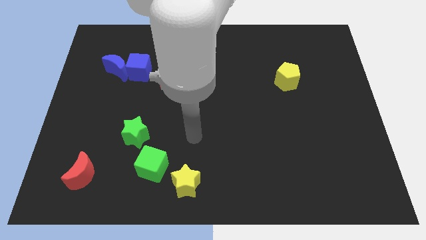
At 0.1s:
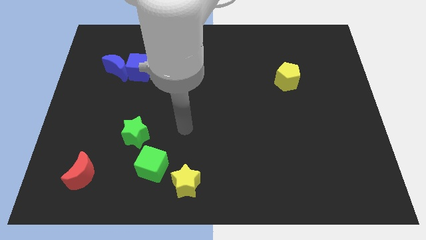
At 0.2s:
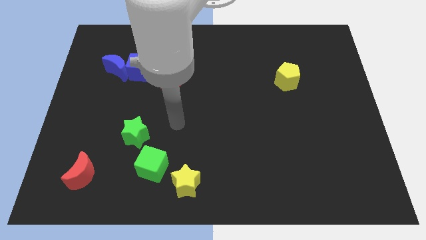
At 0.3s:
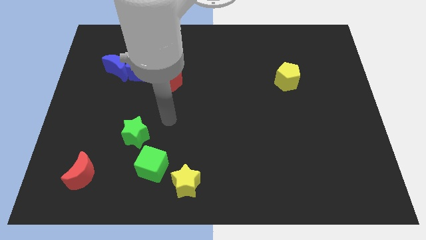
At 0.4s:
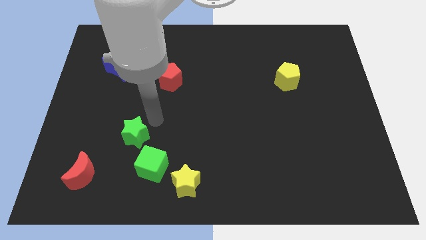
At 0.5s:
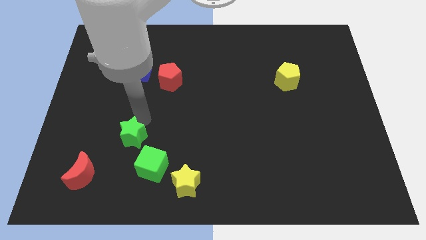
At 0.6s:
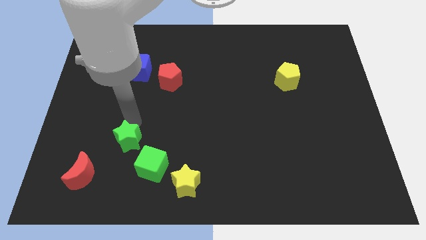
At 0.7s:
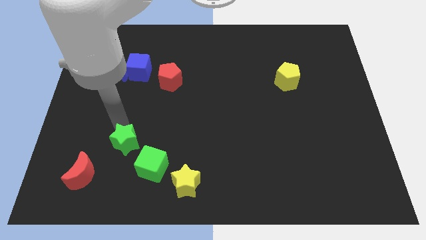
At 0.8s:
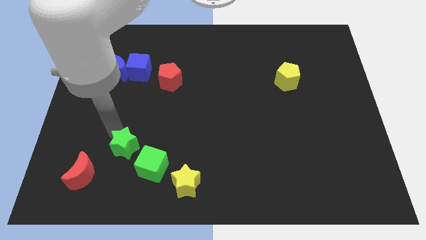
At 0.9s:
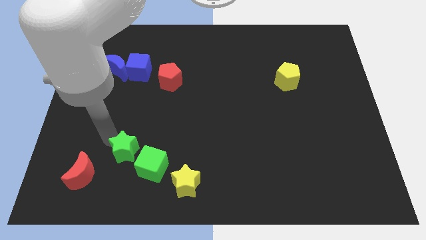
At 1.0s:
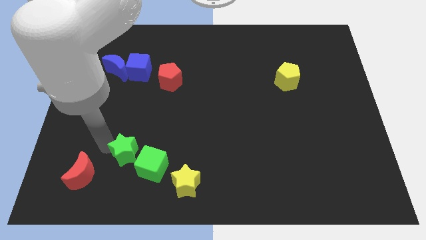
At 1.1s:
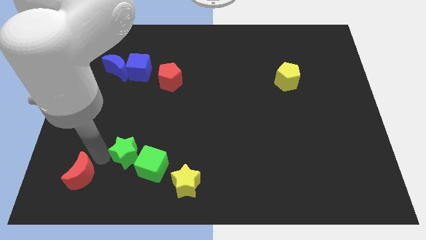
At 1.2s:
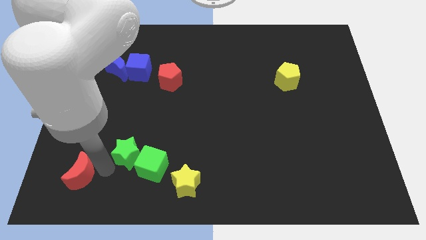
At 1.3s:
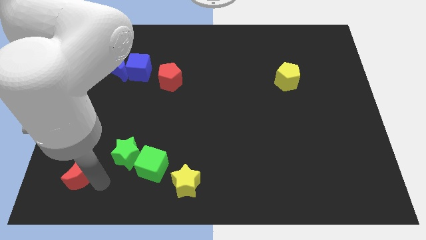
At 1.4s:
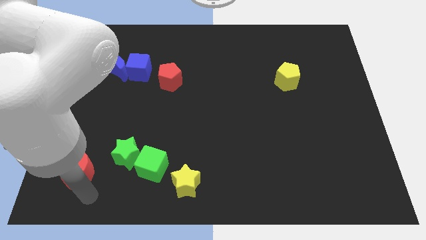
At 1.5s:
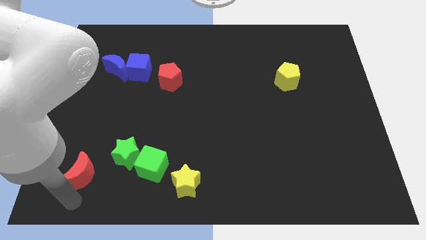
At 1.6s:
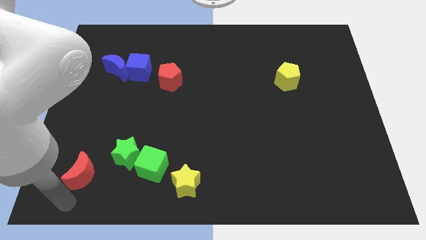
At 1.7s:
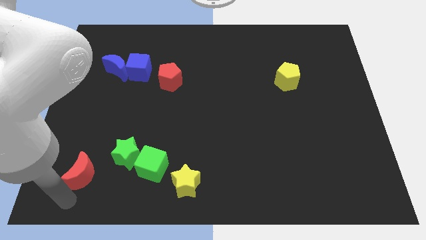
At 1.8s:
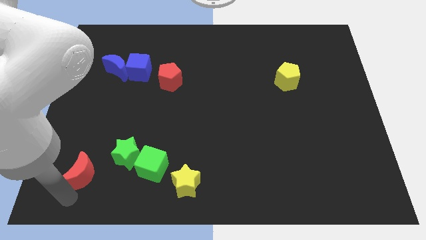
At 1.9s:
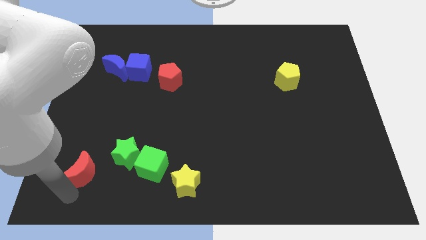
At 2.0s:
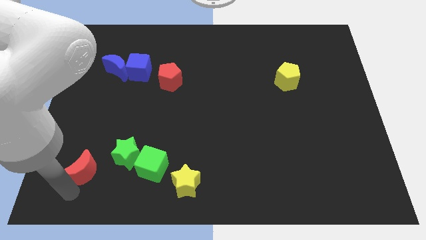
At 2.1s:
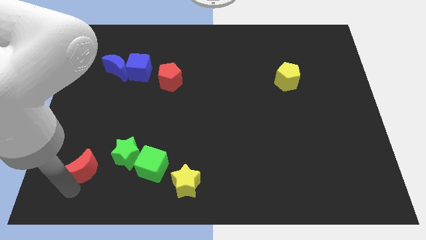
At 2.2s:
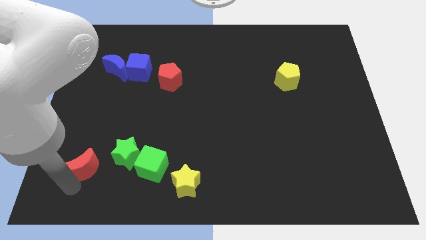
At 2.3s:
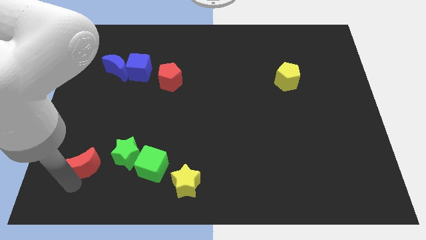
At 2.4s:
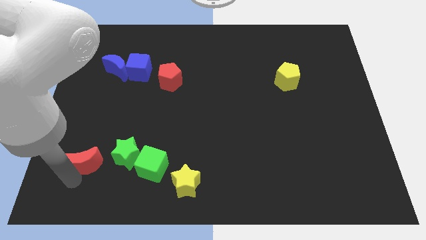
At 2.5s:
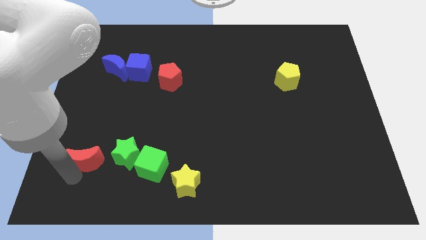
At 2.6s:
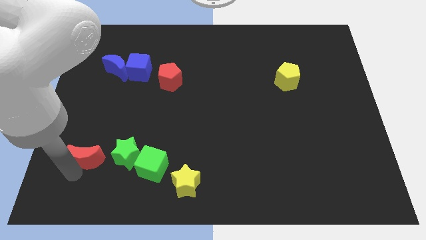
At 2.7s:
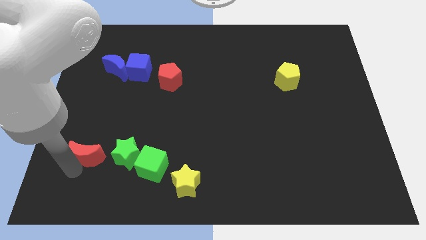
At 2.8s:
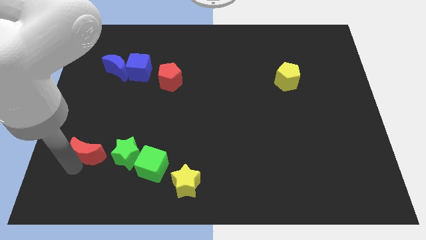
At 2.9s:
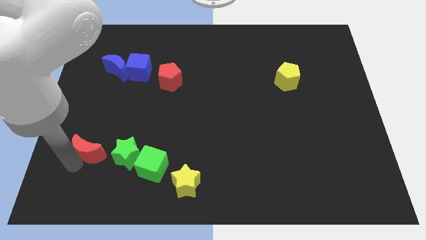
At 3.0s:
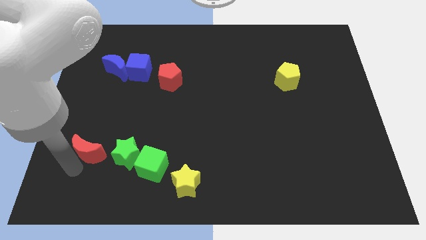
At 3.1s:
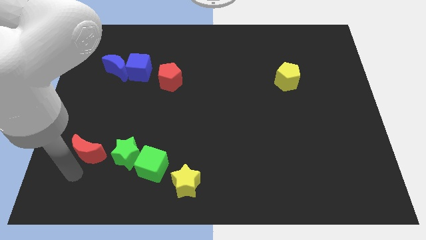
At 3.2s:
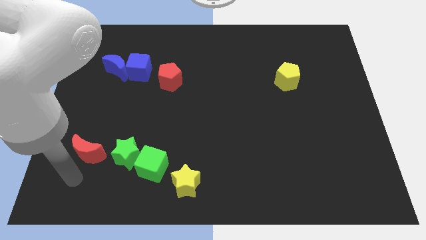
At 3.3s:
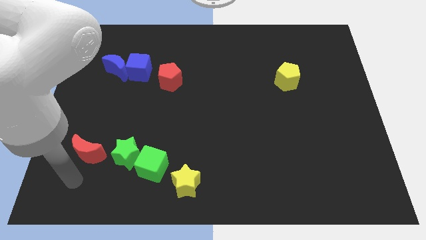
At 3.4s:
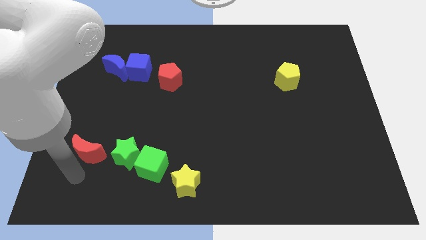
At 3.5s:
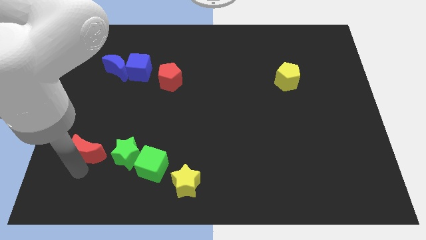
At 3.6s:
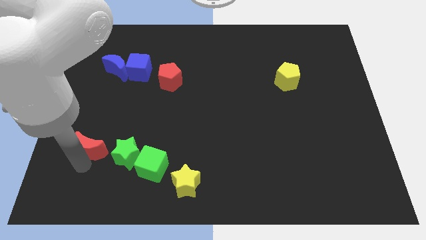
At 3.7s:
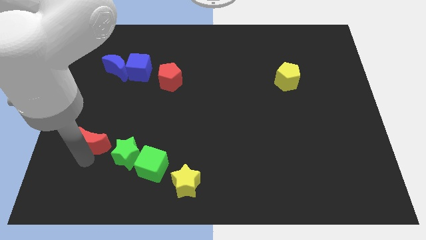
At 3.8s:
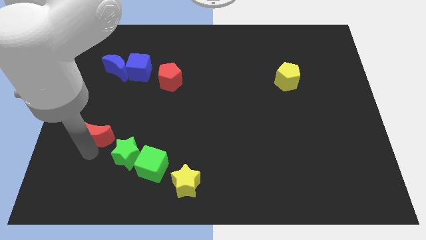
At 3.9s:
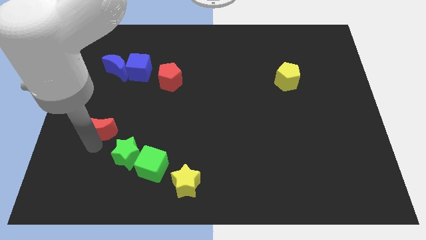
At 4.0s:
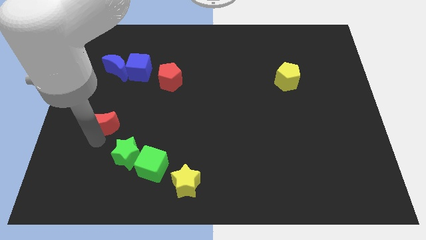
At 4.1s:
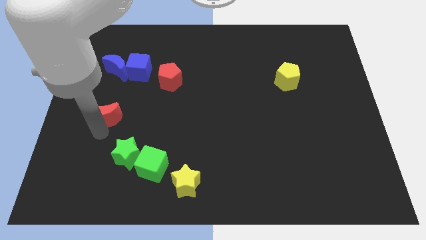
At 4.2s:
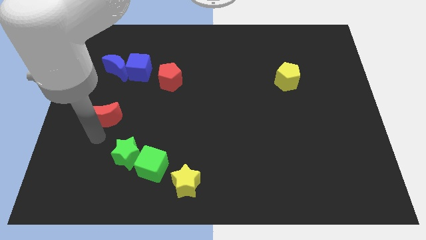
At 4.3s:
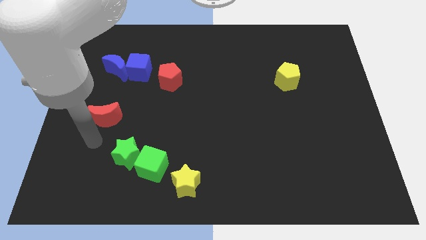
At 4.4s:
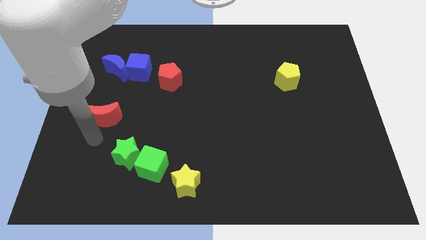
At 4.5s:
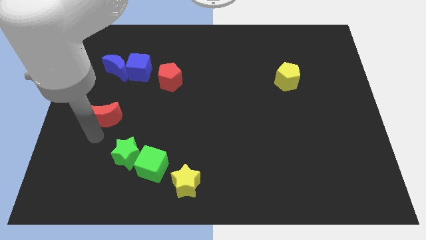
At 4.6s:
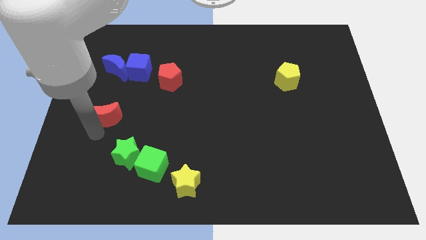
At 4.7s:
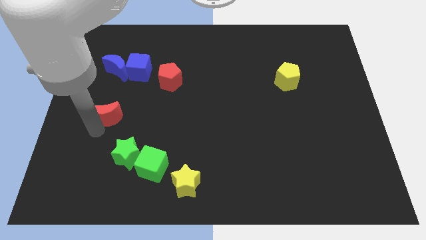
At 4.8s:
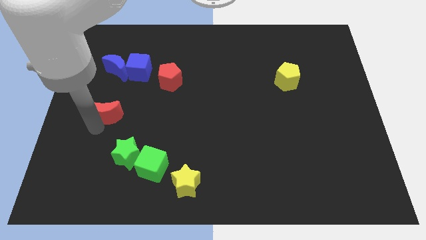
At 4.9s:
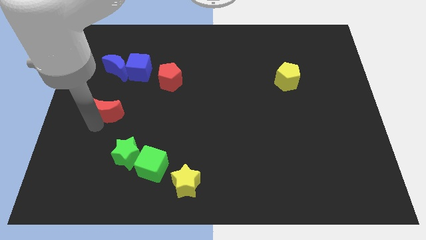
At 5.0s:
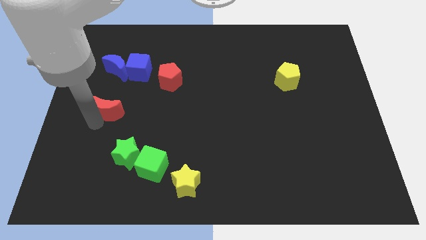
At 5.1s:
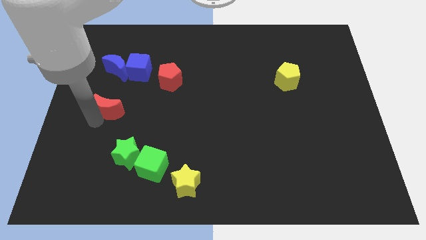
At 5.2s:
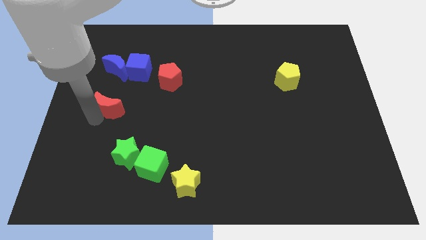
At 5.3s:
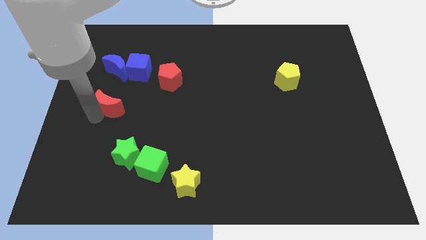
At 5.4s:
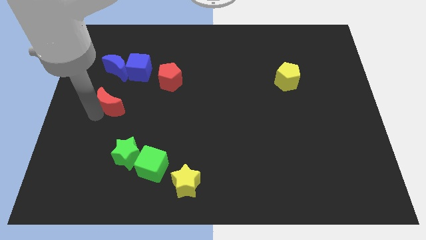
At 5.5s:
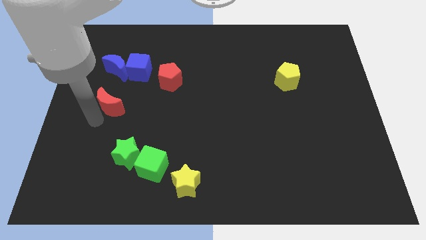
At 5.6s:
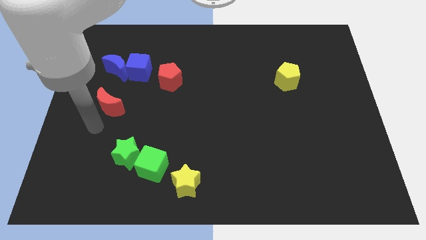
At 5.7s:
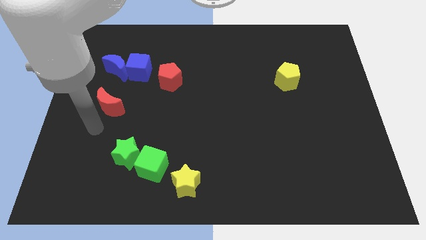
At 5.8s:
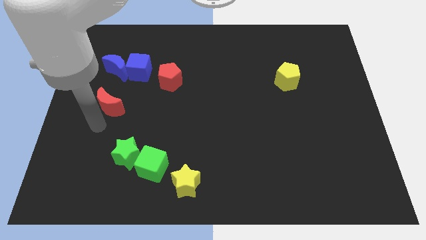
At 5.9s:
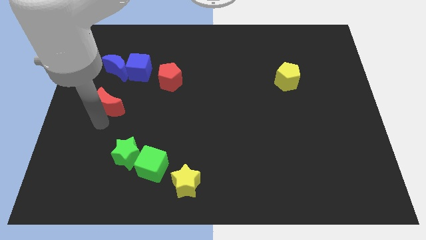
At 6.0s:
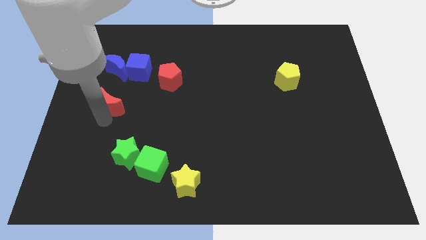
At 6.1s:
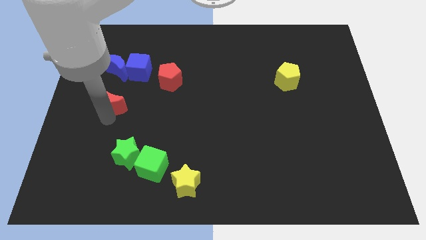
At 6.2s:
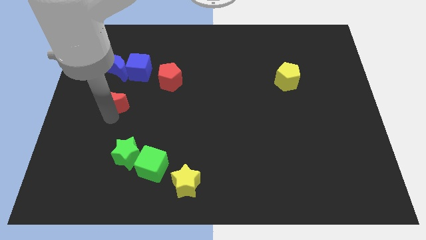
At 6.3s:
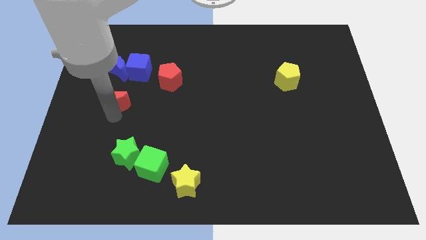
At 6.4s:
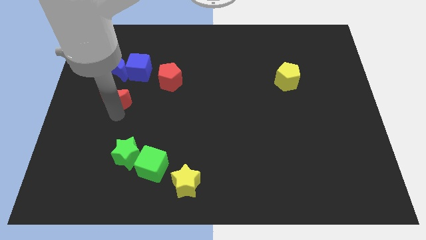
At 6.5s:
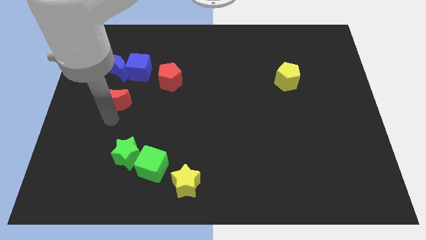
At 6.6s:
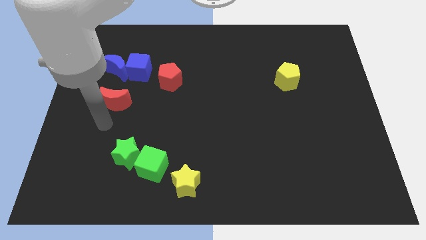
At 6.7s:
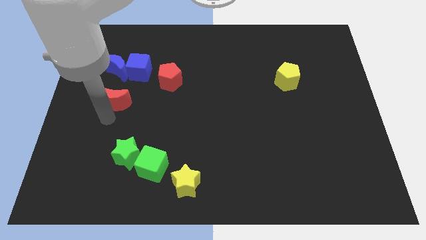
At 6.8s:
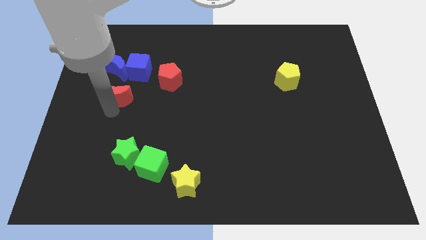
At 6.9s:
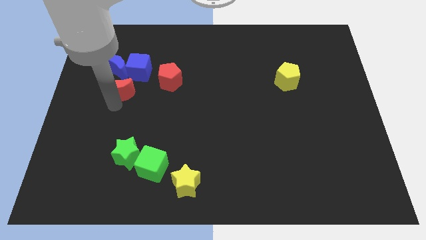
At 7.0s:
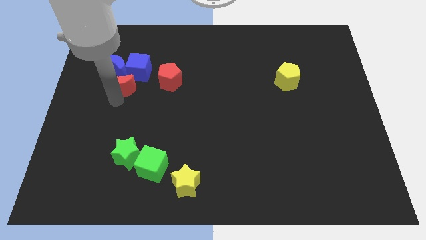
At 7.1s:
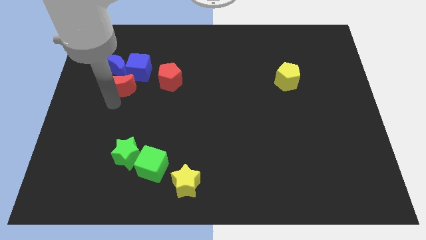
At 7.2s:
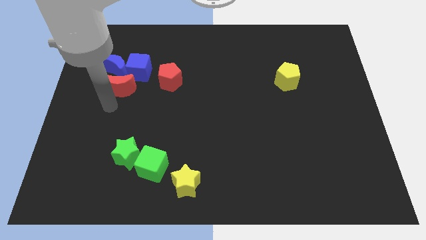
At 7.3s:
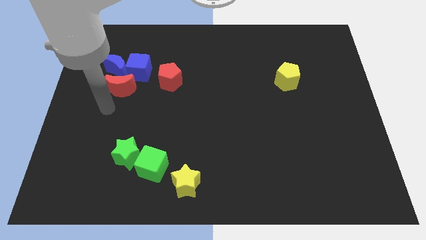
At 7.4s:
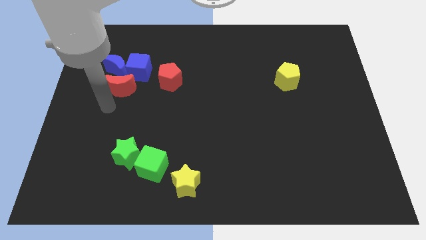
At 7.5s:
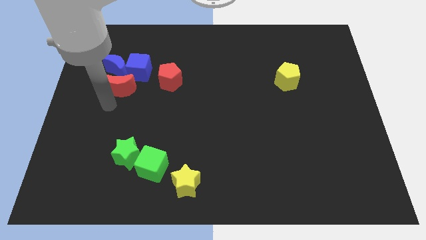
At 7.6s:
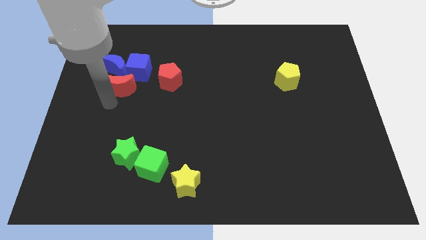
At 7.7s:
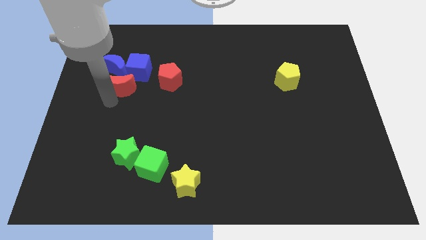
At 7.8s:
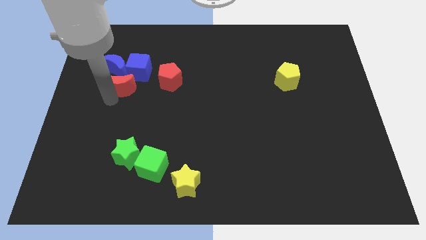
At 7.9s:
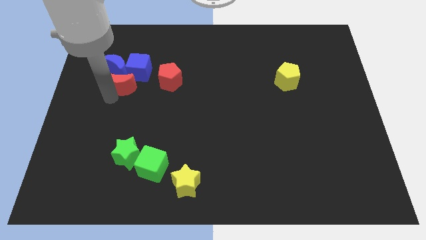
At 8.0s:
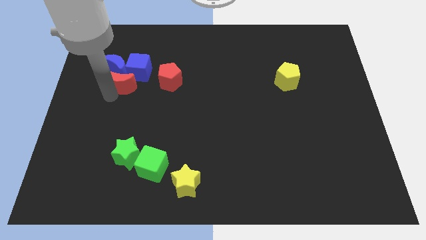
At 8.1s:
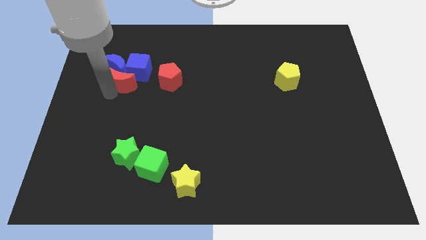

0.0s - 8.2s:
move the red moon to the blue cube
